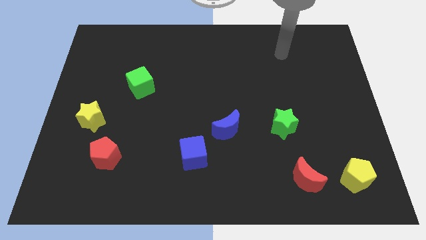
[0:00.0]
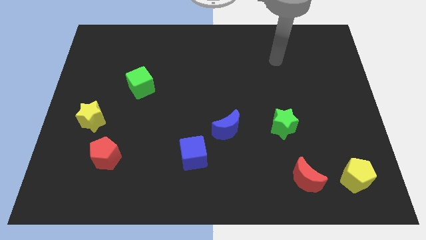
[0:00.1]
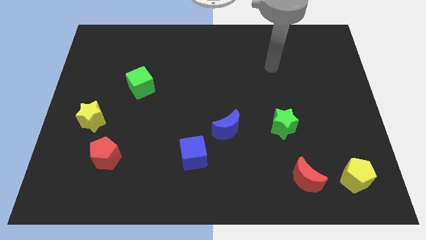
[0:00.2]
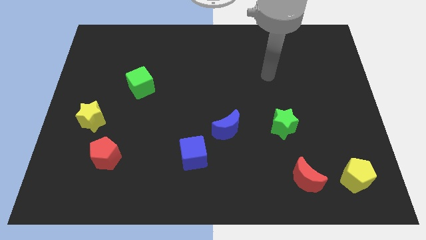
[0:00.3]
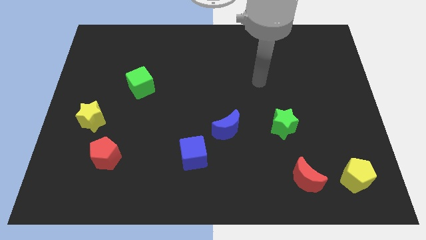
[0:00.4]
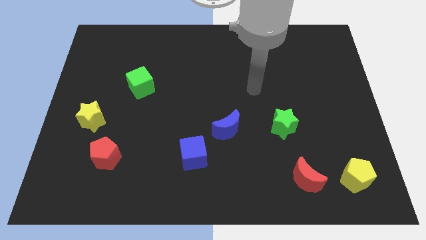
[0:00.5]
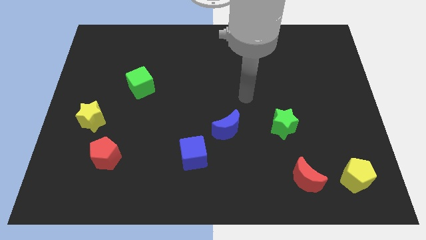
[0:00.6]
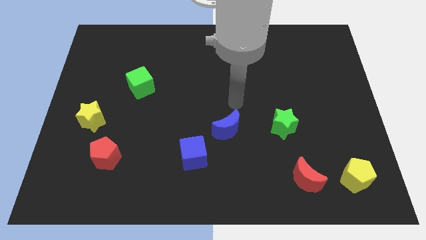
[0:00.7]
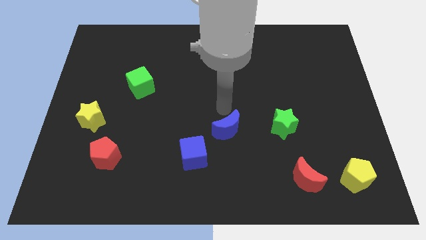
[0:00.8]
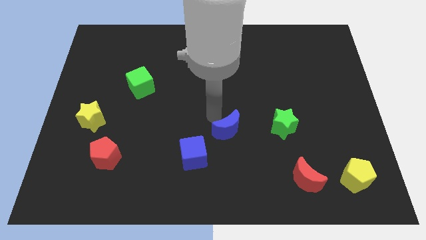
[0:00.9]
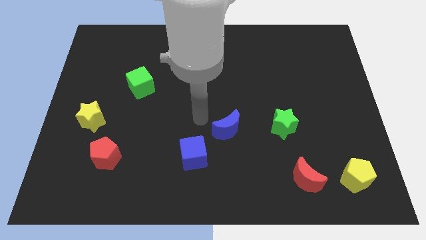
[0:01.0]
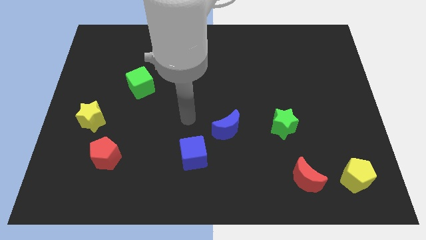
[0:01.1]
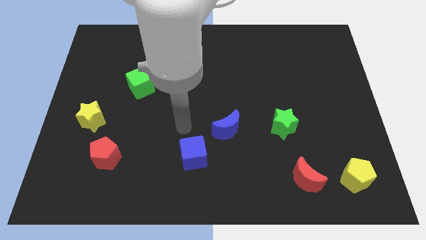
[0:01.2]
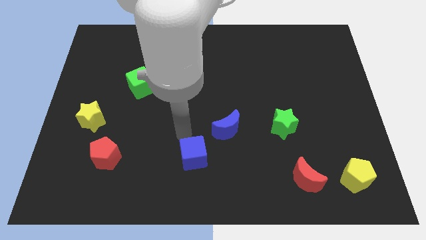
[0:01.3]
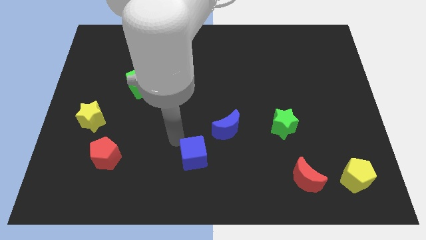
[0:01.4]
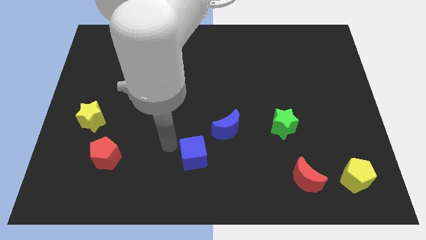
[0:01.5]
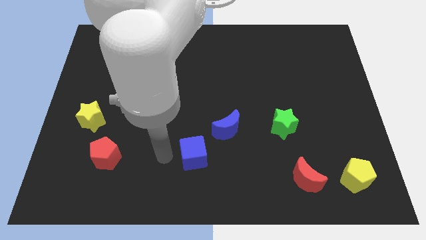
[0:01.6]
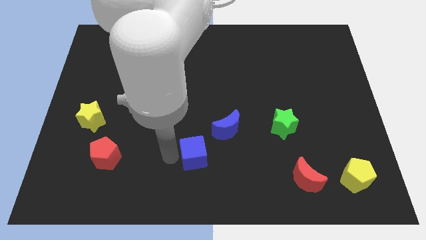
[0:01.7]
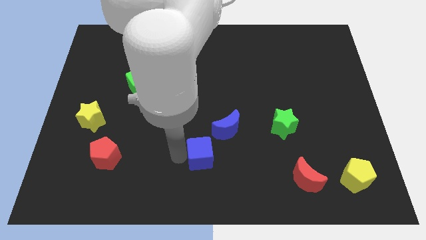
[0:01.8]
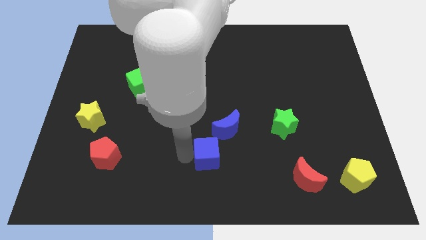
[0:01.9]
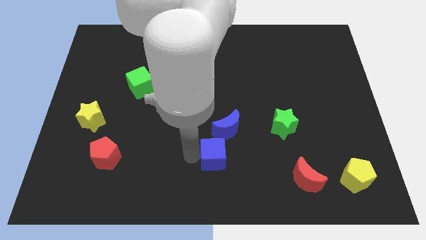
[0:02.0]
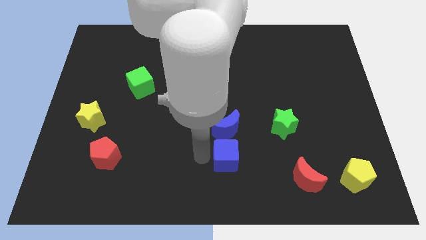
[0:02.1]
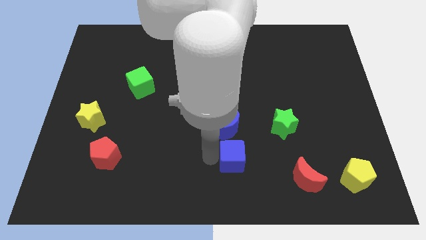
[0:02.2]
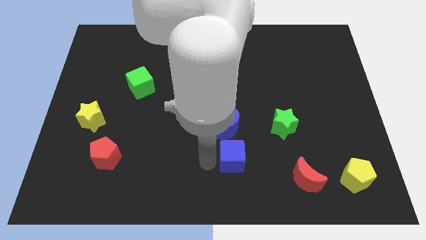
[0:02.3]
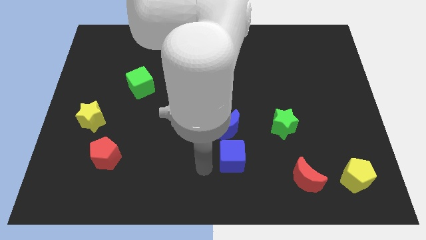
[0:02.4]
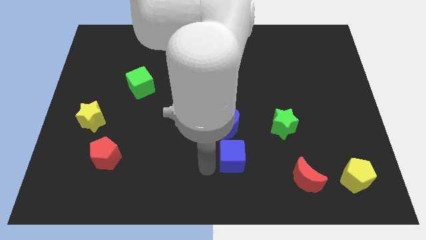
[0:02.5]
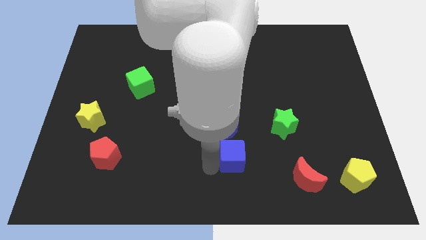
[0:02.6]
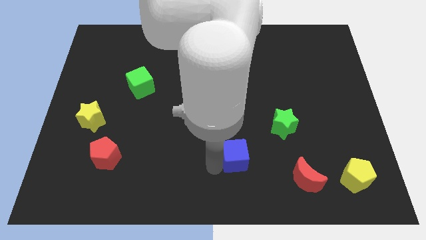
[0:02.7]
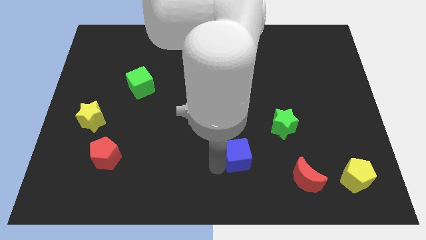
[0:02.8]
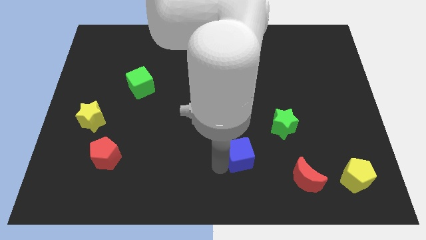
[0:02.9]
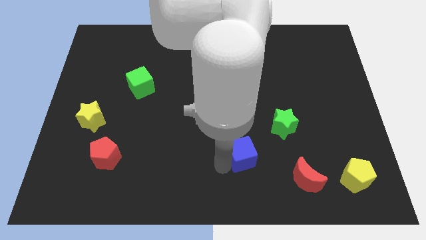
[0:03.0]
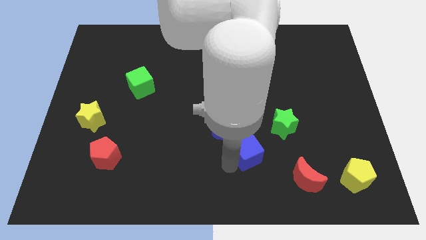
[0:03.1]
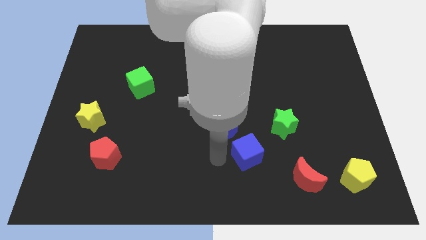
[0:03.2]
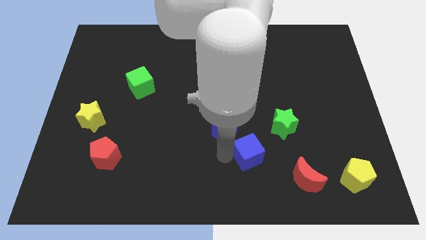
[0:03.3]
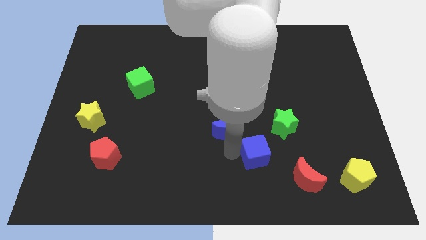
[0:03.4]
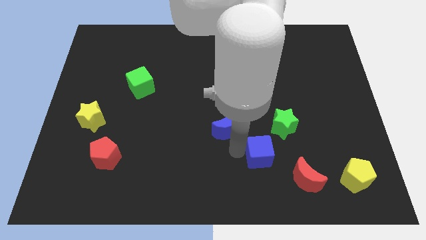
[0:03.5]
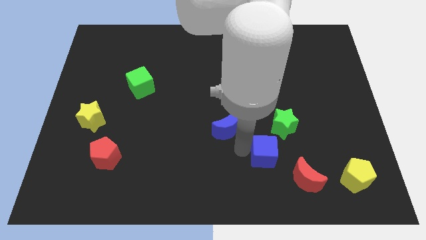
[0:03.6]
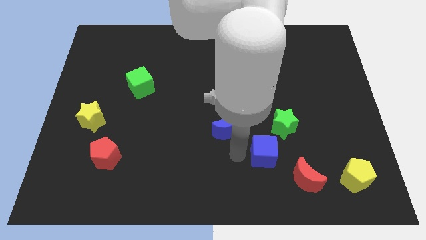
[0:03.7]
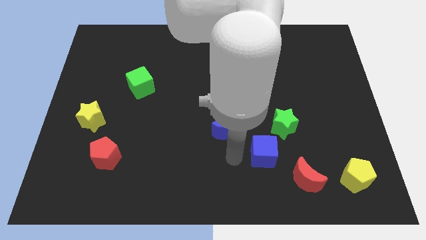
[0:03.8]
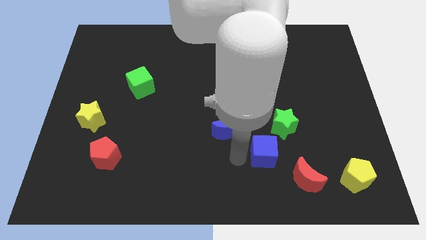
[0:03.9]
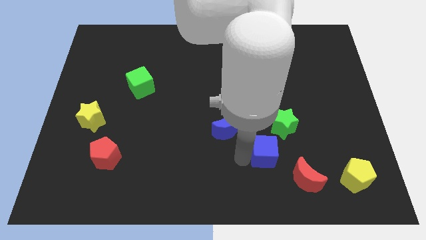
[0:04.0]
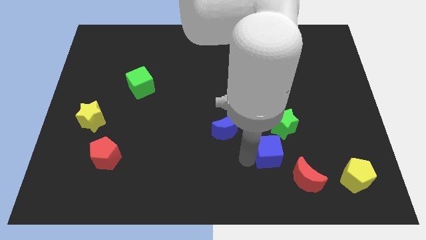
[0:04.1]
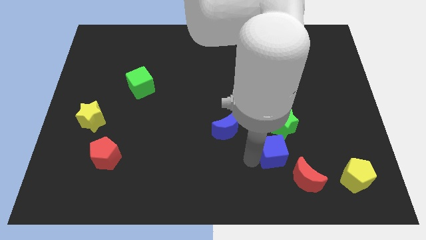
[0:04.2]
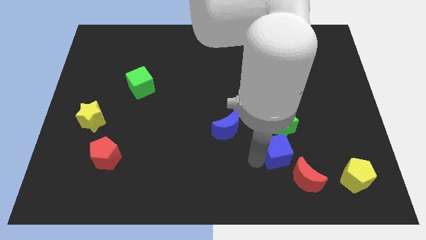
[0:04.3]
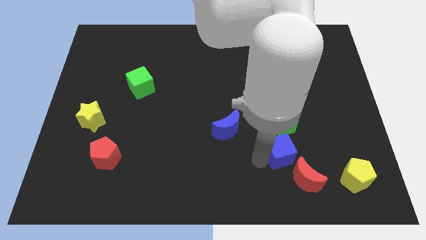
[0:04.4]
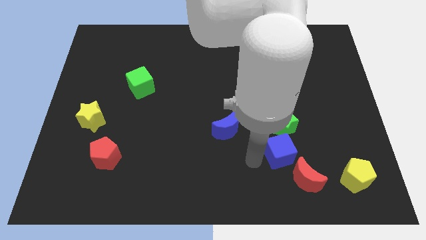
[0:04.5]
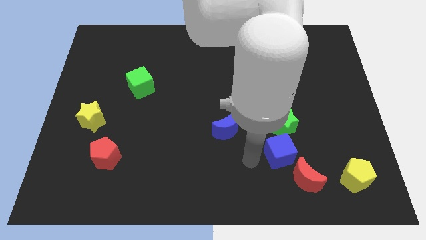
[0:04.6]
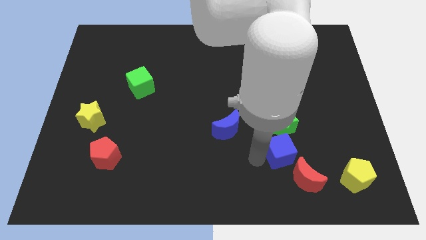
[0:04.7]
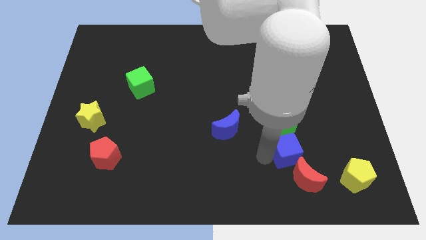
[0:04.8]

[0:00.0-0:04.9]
move the blue cube diagonally down and to the right of the green star

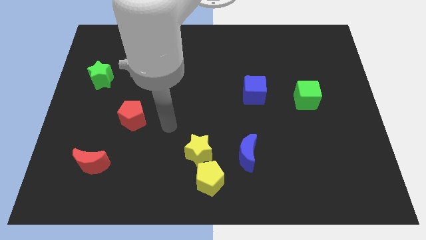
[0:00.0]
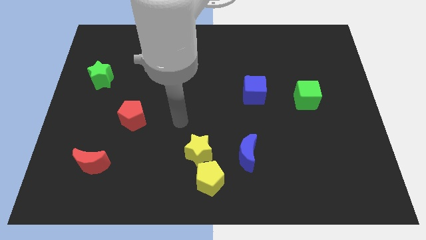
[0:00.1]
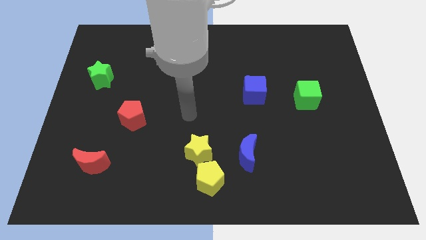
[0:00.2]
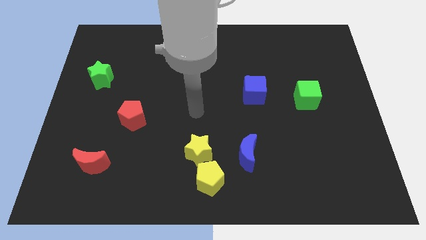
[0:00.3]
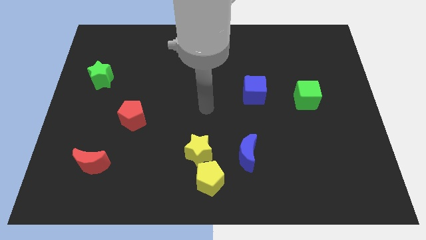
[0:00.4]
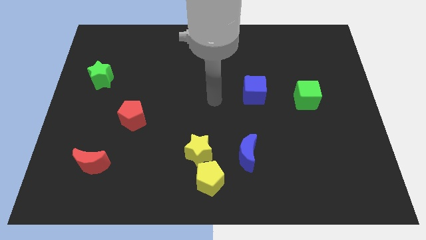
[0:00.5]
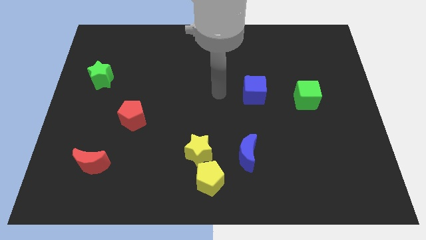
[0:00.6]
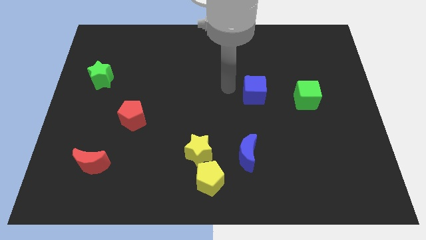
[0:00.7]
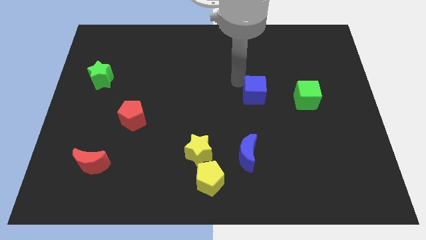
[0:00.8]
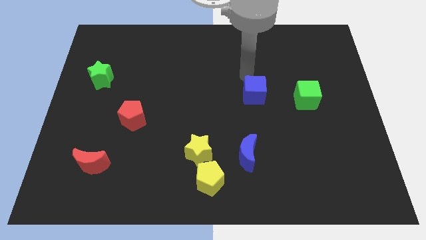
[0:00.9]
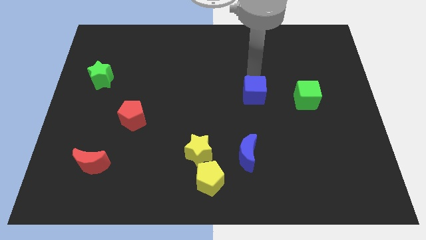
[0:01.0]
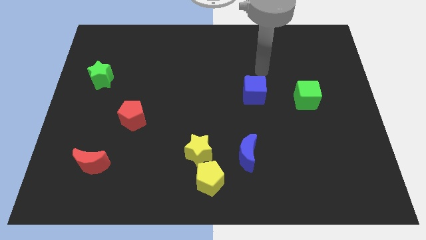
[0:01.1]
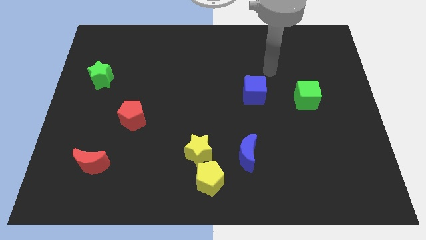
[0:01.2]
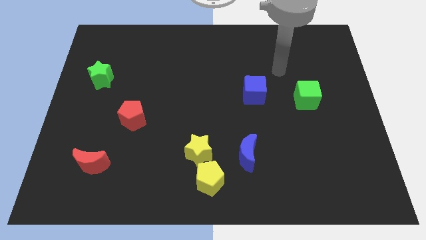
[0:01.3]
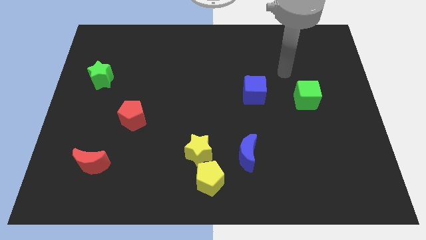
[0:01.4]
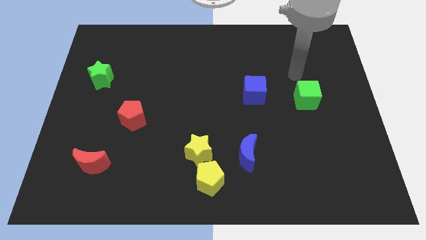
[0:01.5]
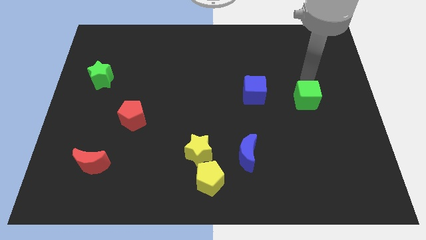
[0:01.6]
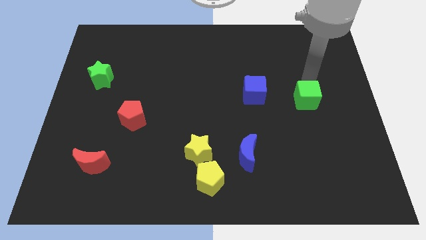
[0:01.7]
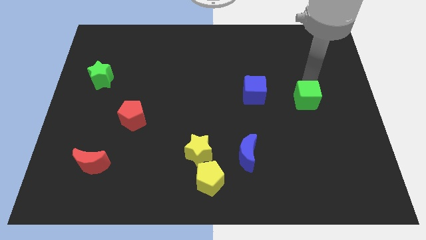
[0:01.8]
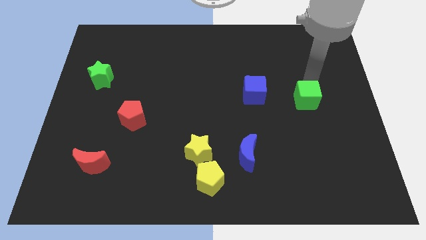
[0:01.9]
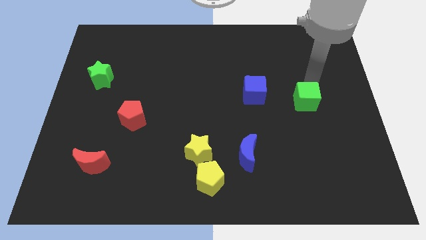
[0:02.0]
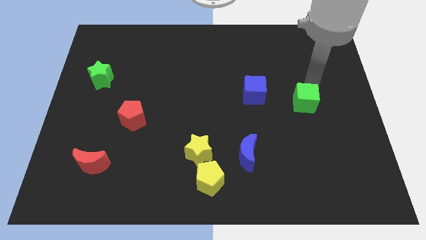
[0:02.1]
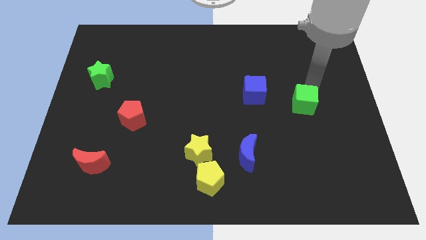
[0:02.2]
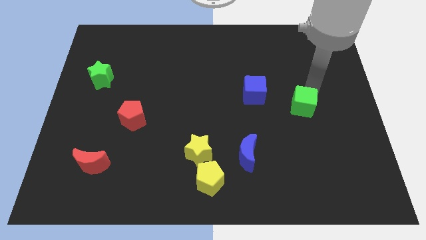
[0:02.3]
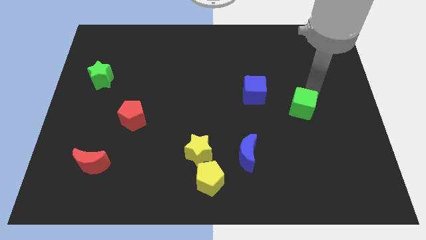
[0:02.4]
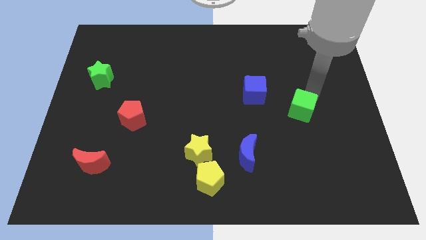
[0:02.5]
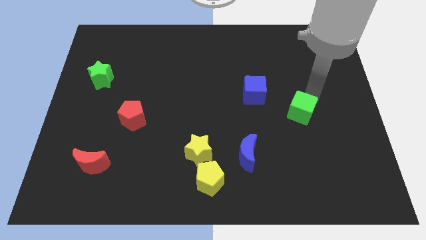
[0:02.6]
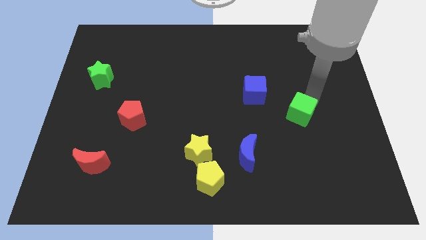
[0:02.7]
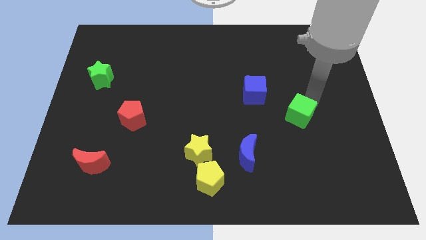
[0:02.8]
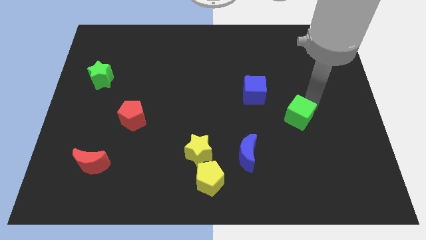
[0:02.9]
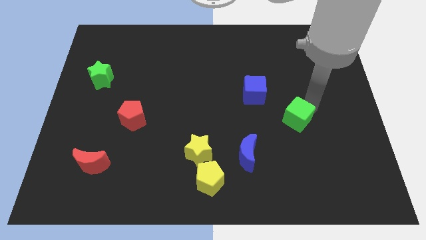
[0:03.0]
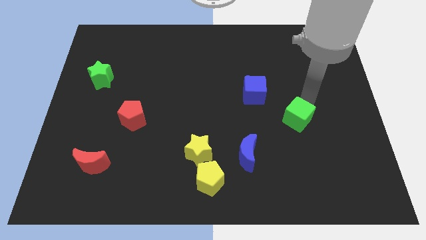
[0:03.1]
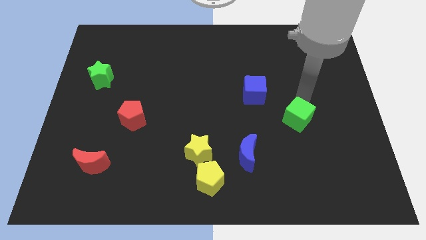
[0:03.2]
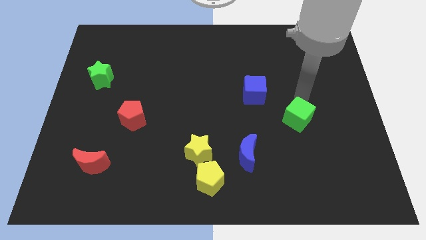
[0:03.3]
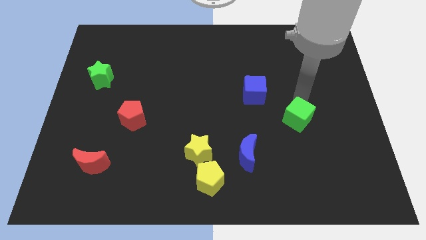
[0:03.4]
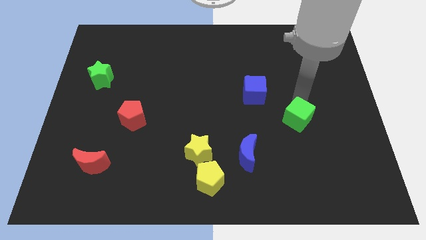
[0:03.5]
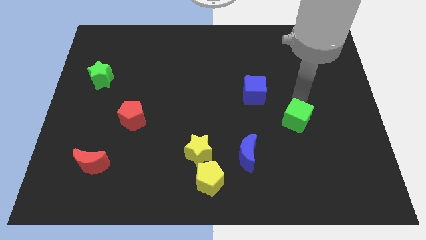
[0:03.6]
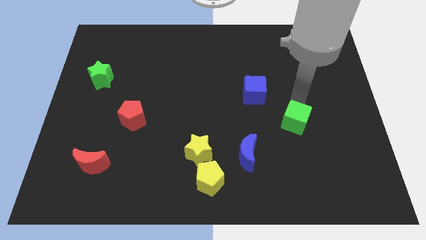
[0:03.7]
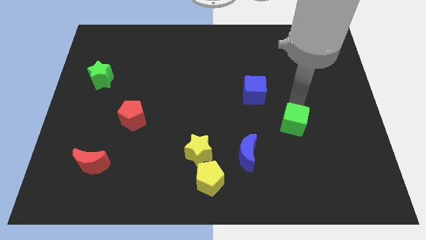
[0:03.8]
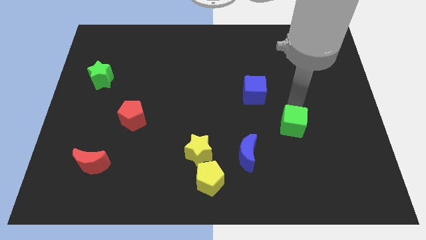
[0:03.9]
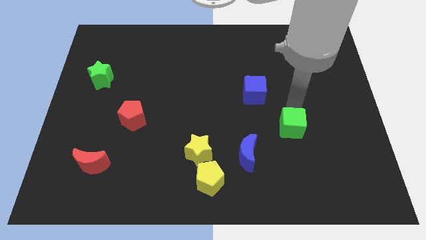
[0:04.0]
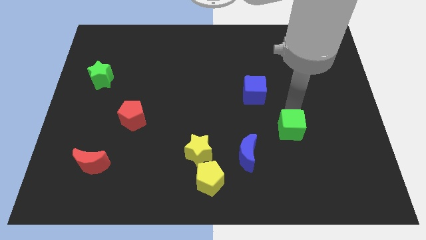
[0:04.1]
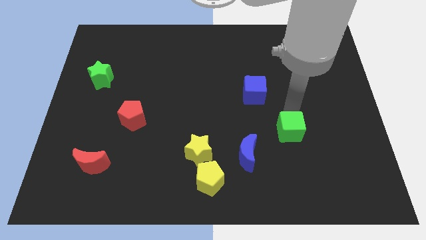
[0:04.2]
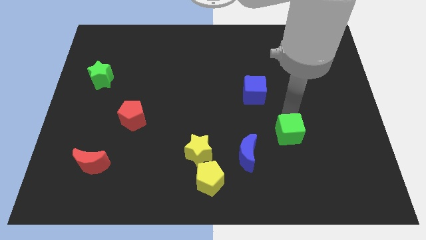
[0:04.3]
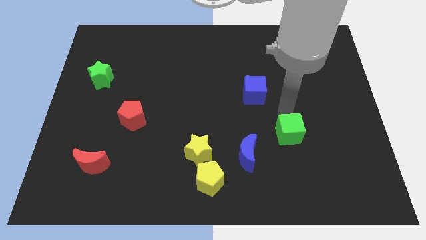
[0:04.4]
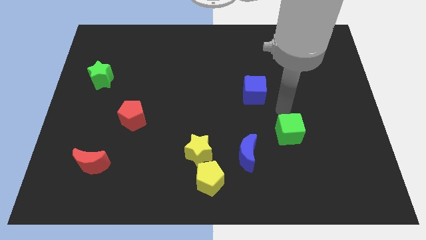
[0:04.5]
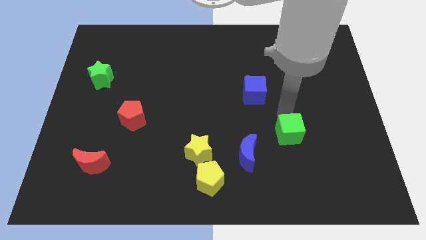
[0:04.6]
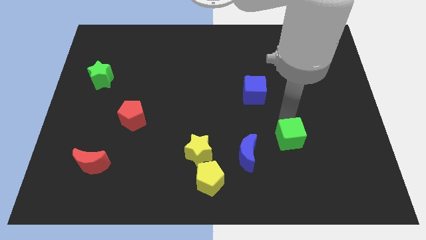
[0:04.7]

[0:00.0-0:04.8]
put the green cube to the right side of the blue moon
